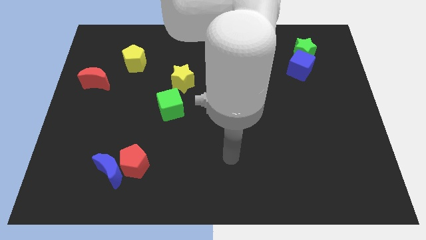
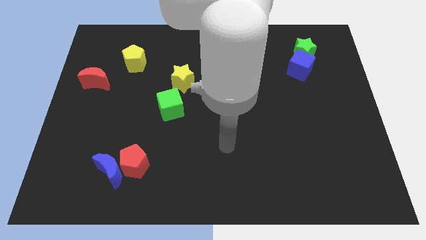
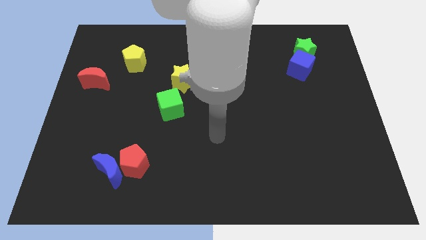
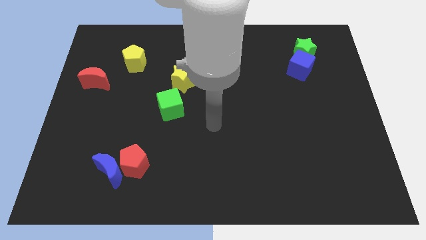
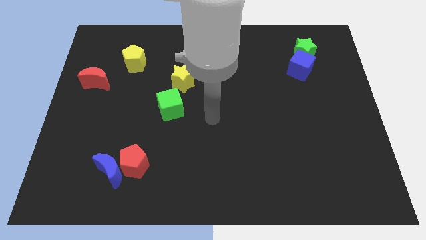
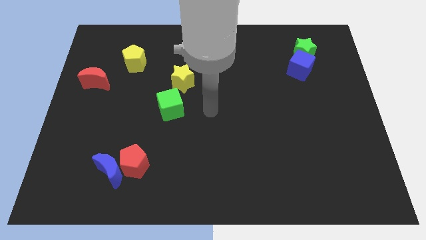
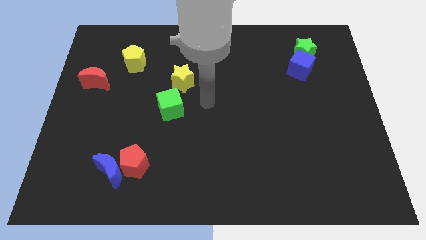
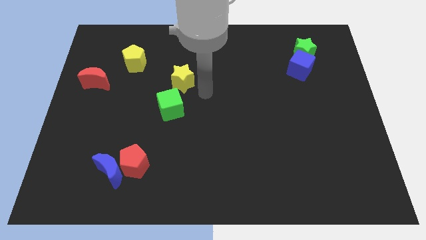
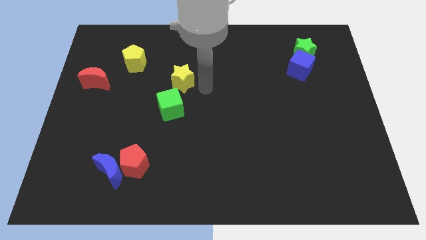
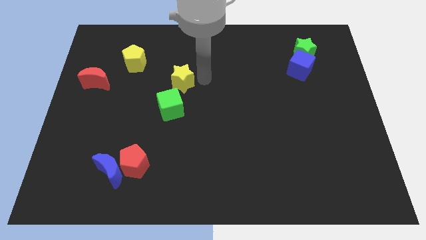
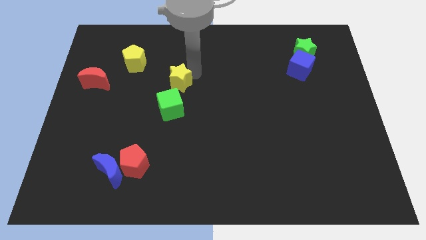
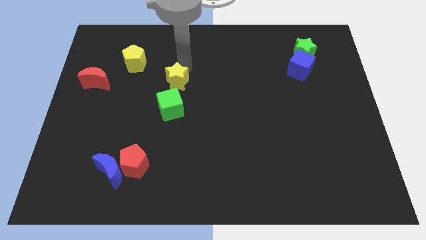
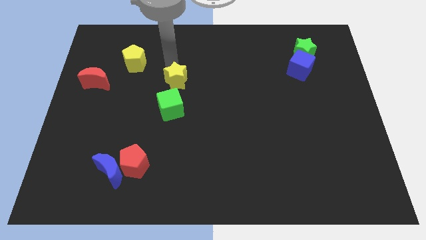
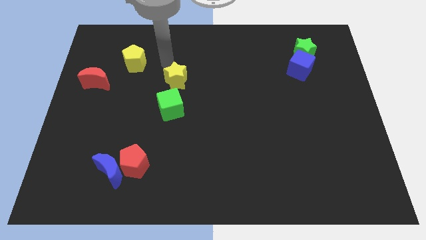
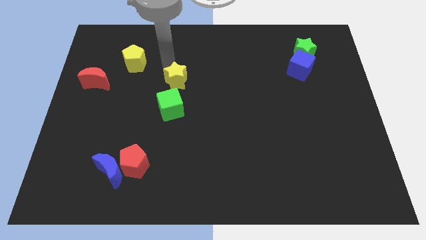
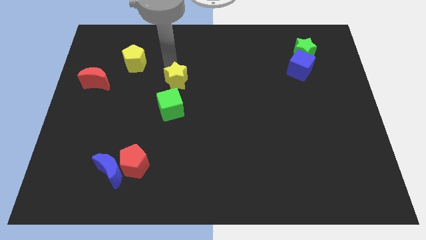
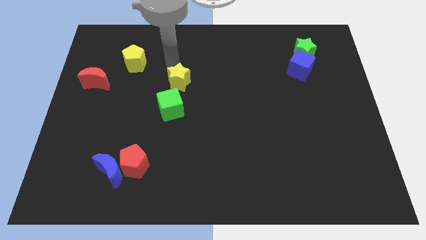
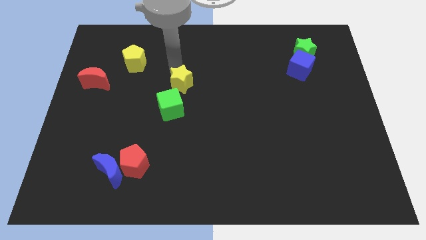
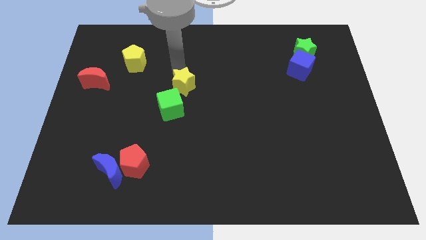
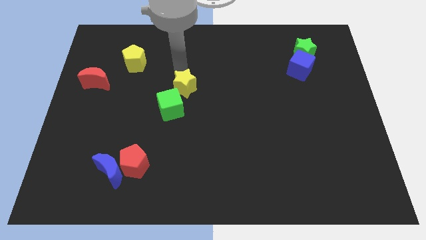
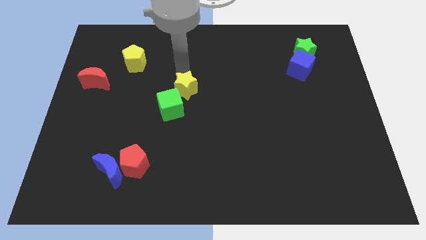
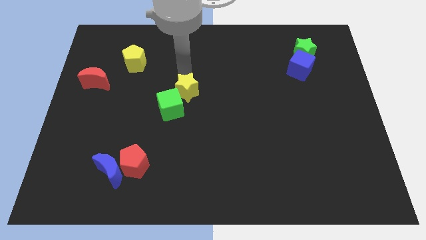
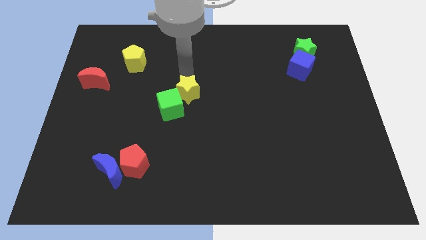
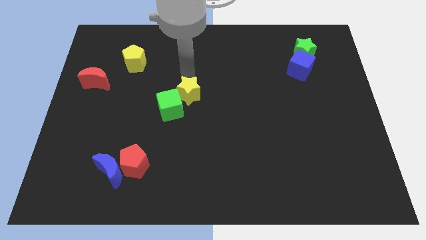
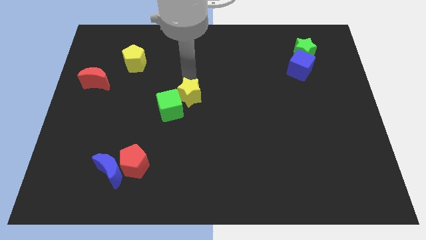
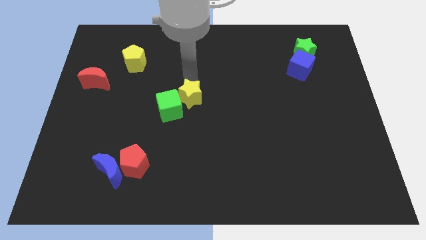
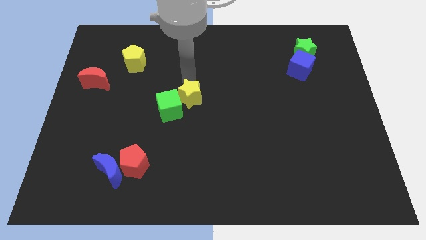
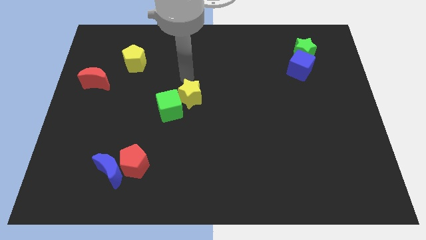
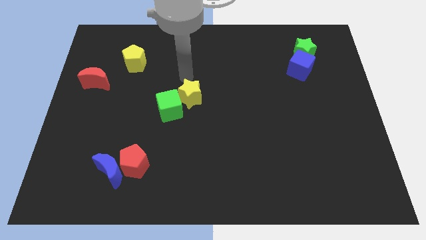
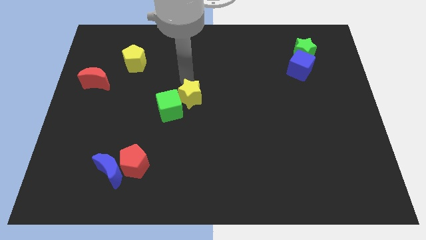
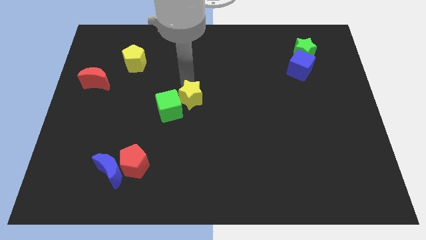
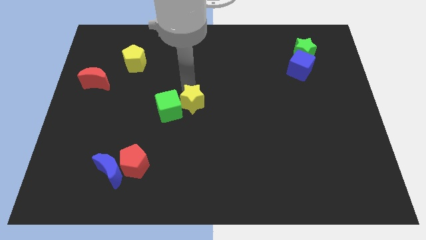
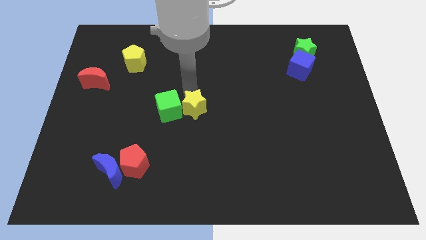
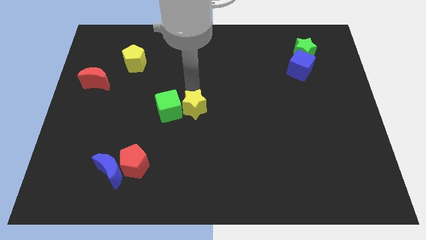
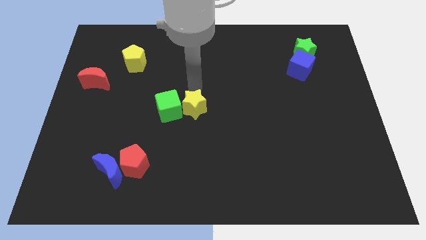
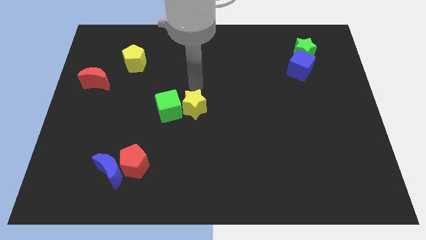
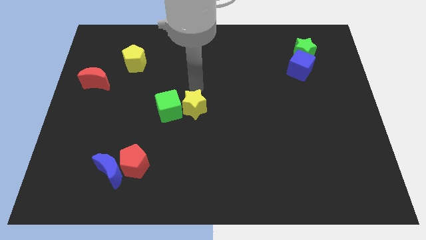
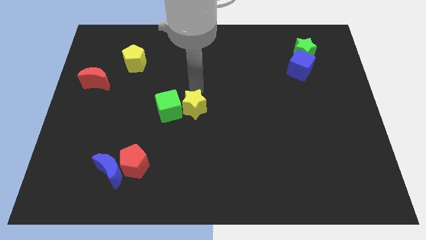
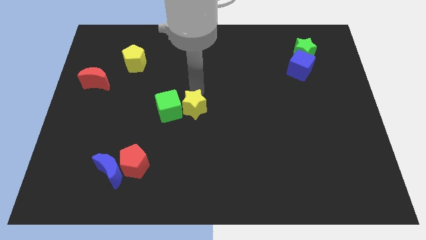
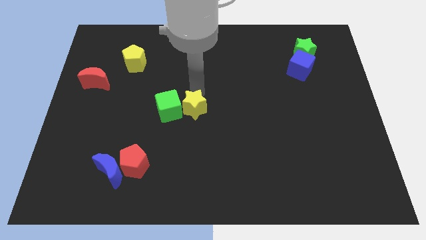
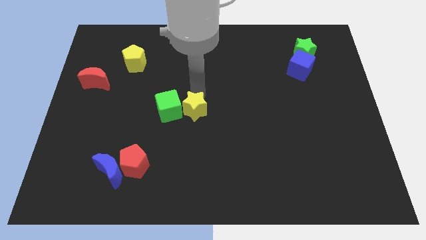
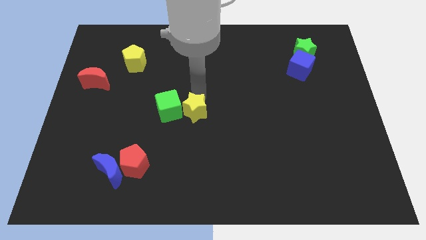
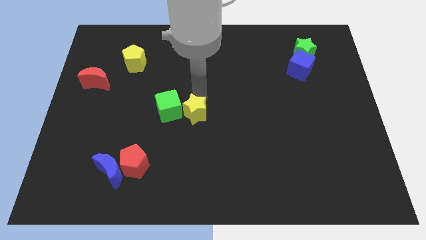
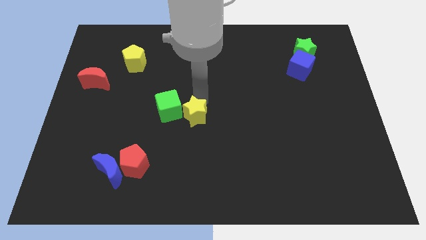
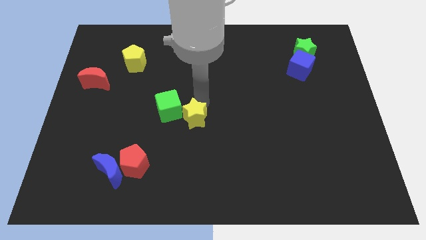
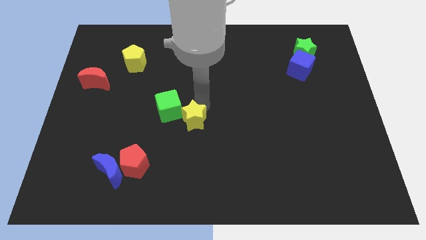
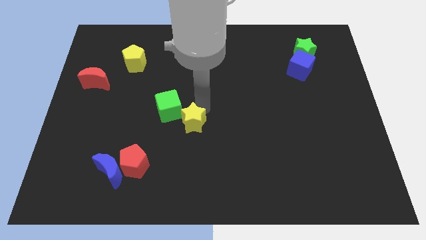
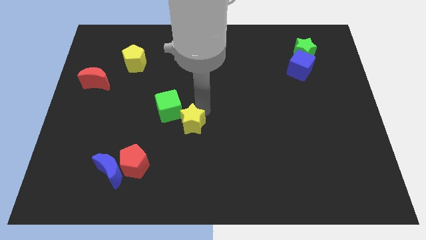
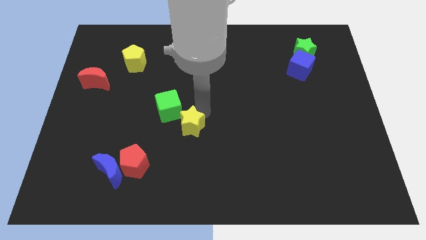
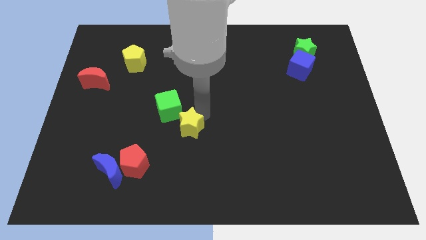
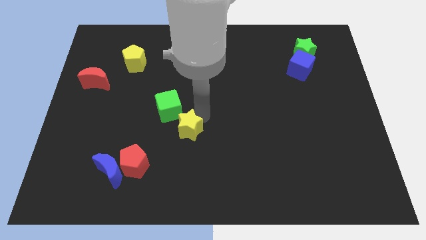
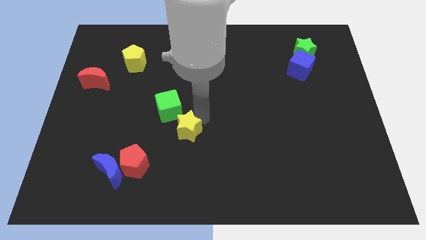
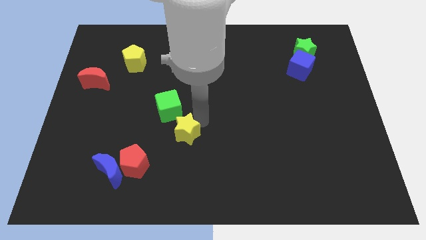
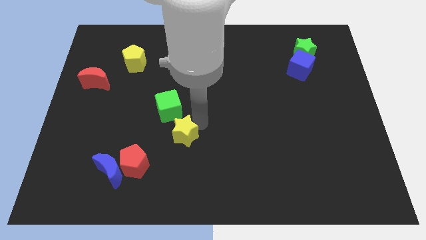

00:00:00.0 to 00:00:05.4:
slide the yellow star to the top right side of the red pentagon

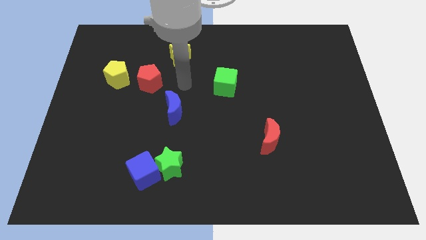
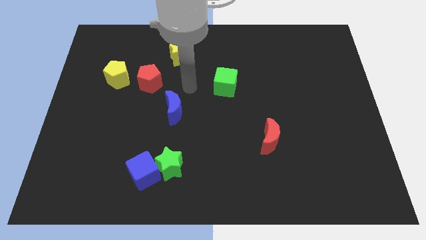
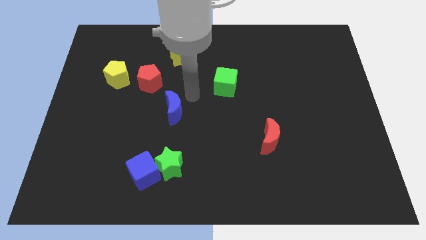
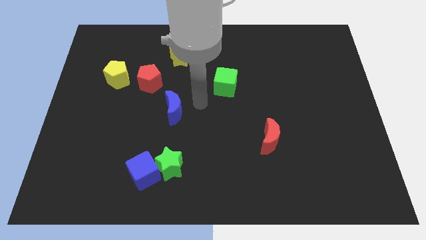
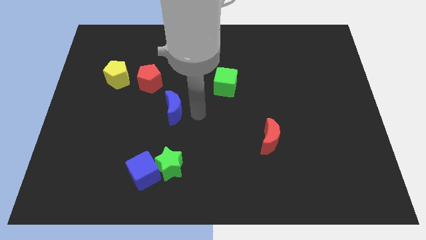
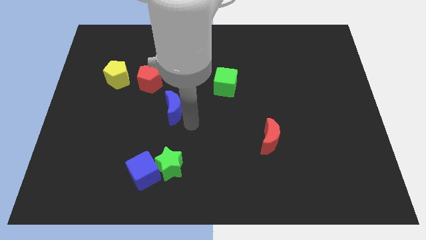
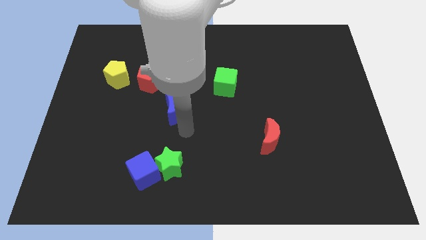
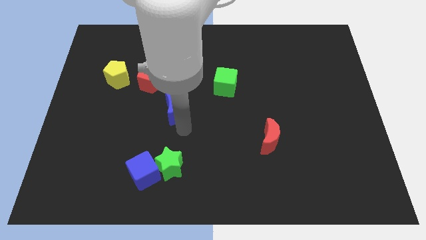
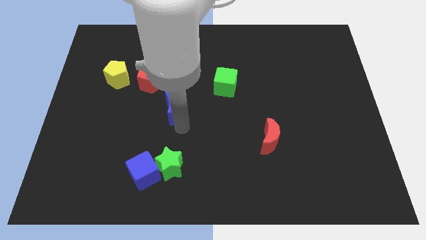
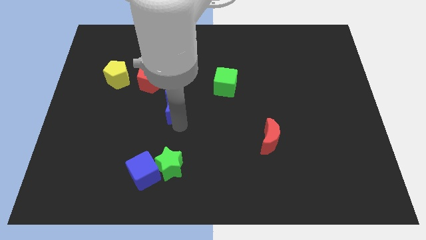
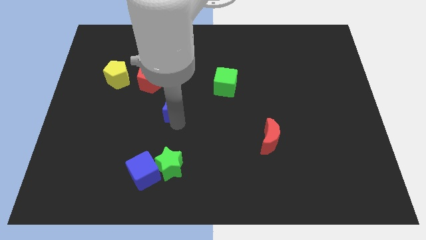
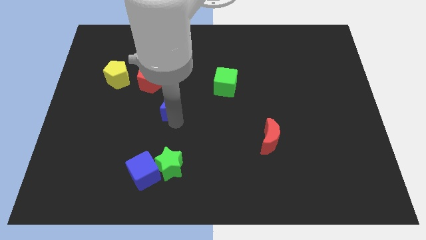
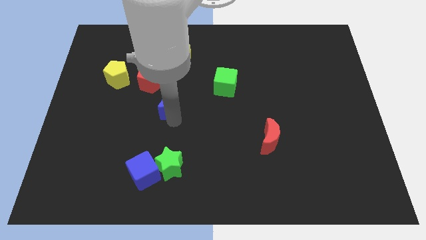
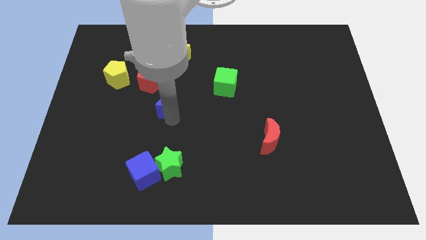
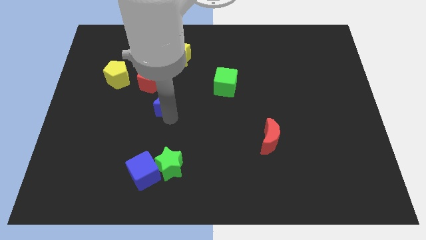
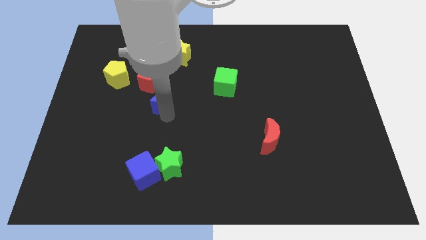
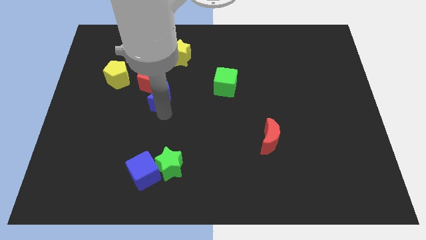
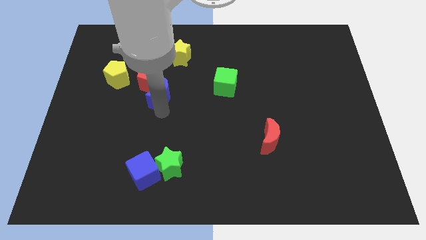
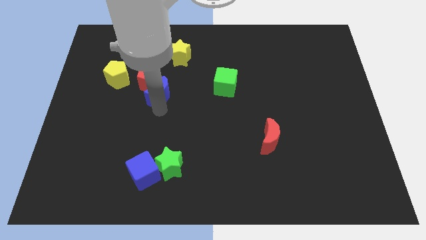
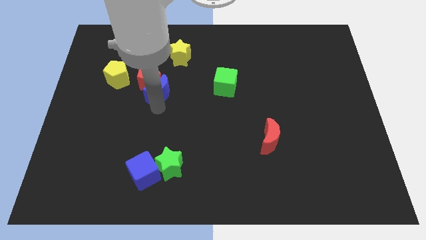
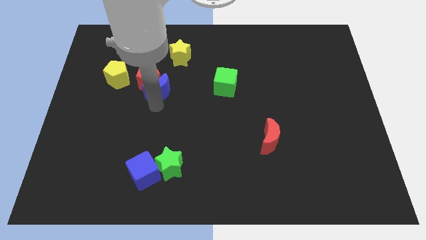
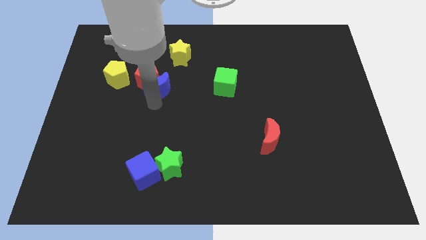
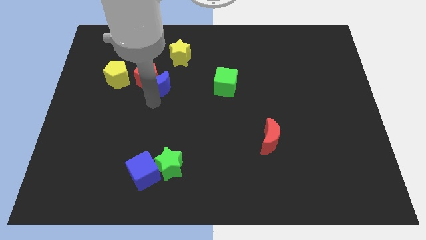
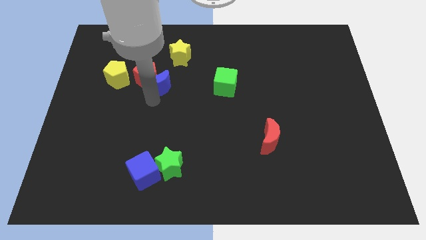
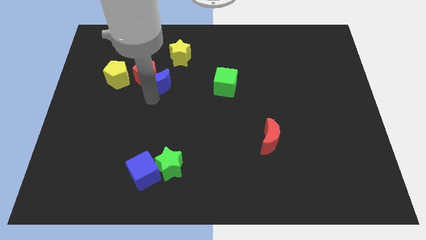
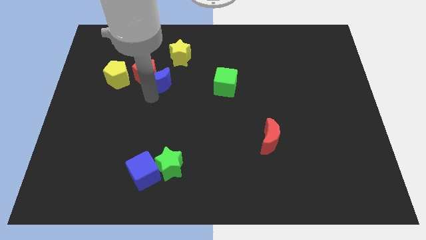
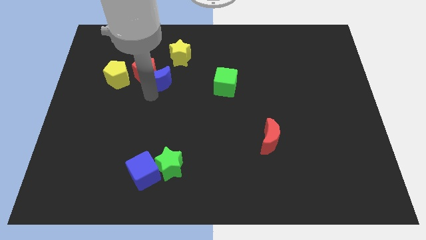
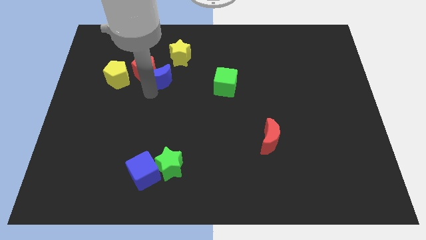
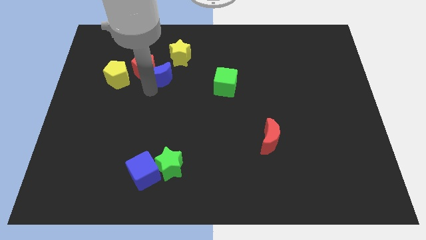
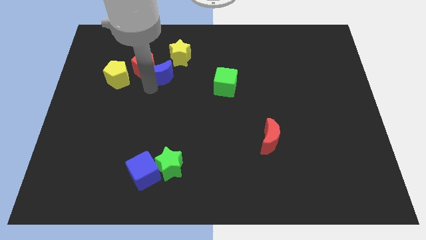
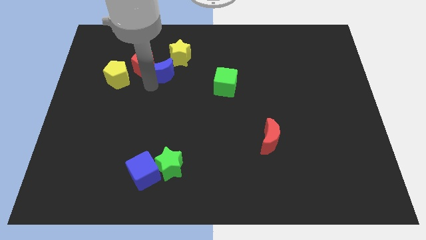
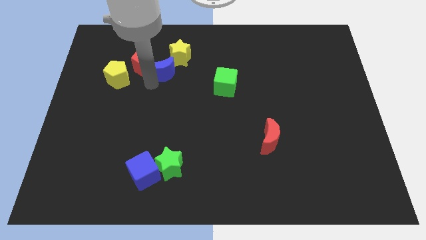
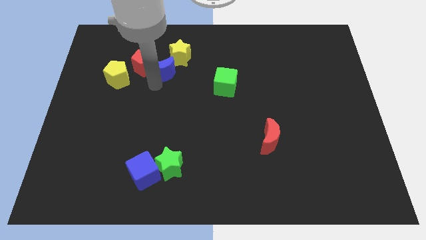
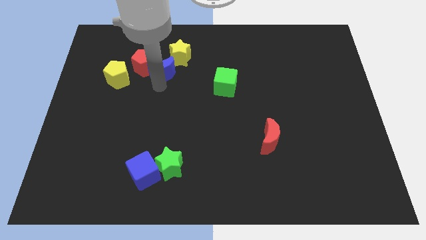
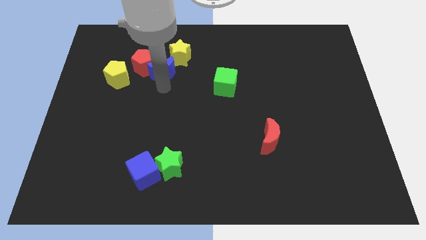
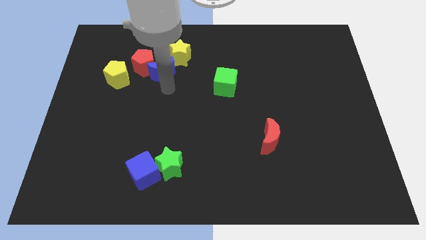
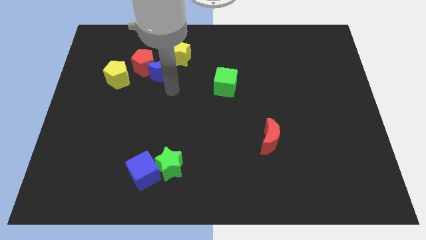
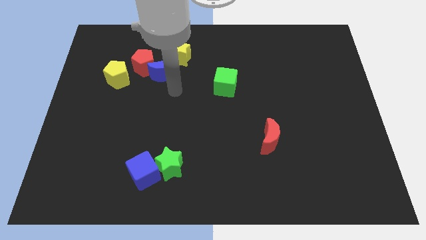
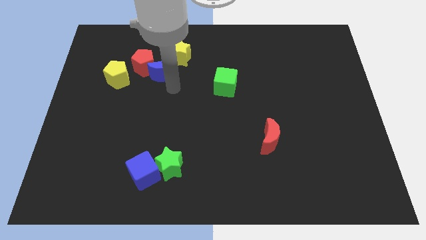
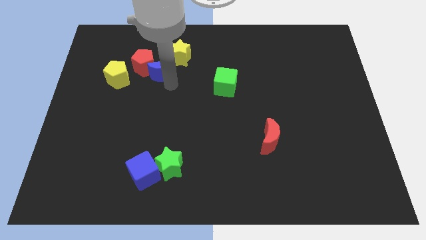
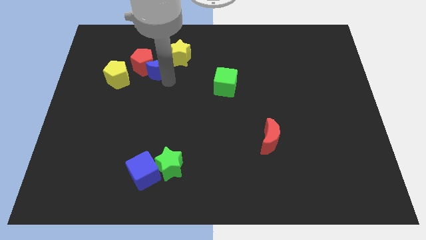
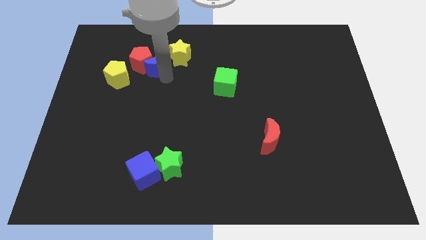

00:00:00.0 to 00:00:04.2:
move the blue moon to the top right of the yellow pentagon
